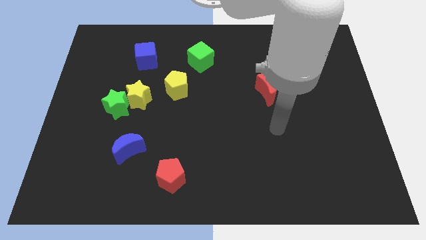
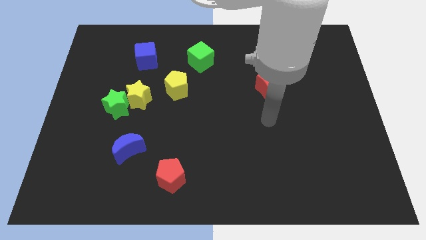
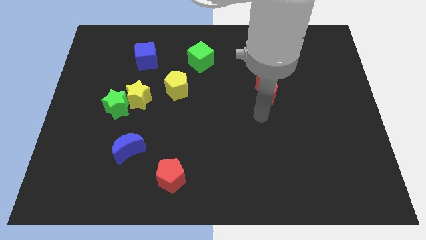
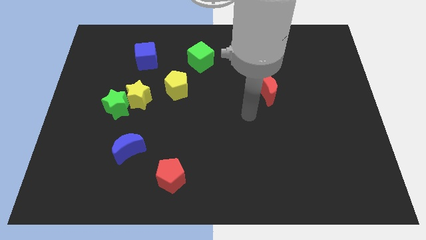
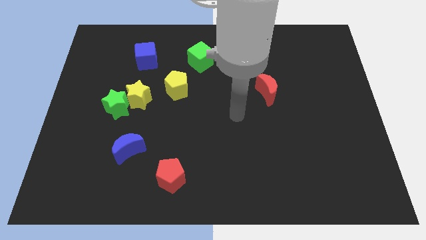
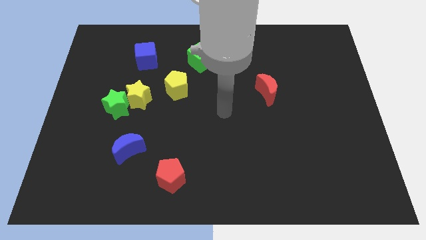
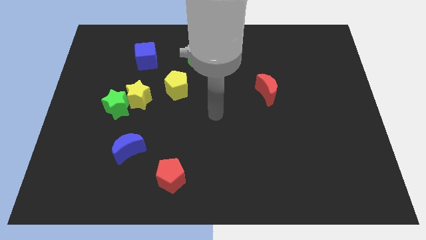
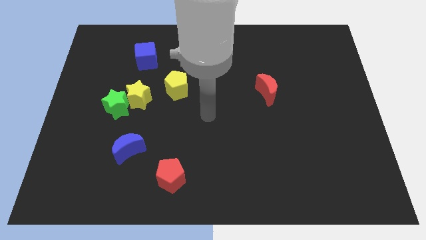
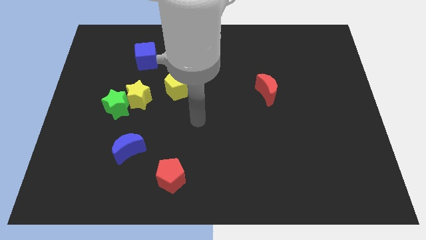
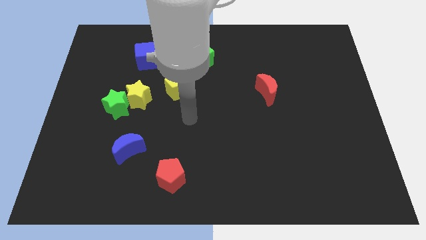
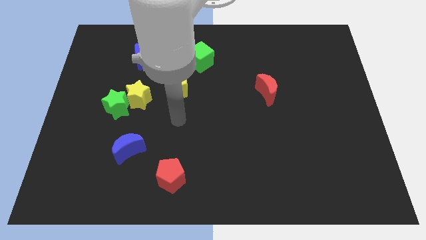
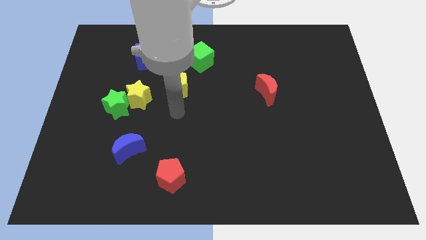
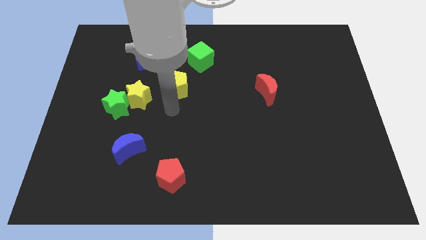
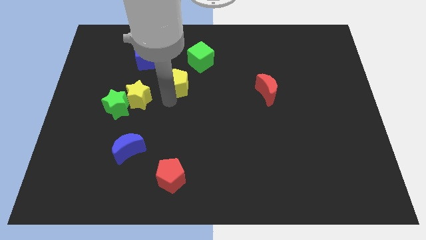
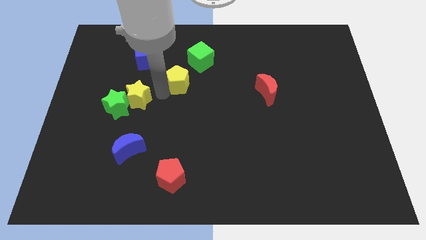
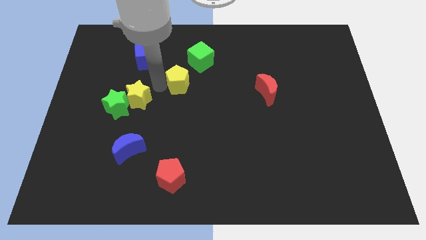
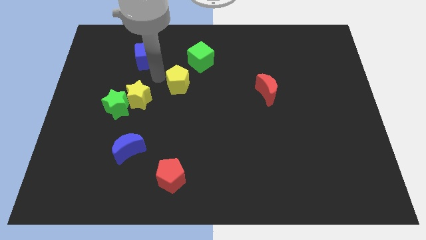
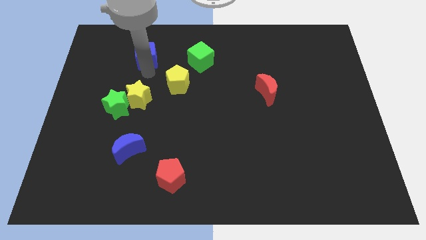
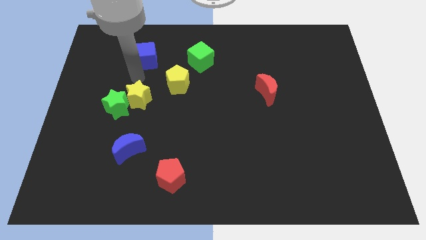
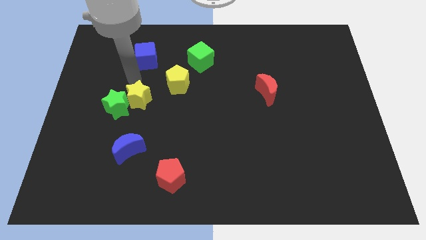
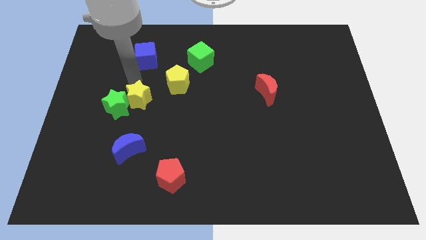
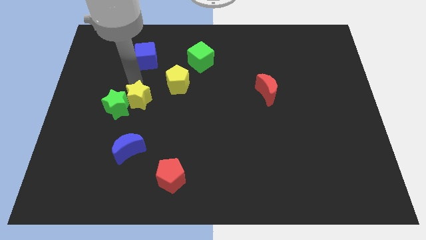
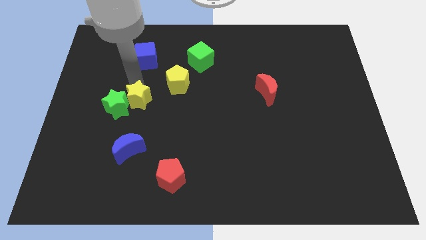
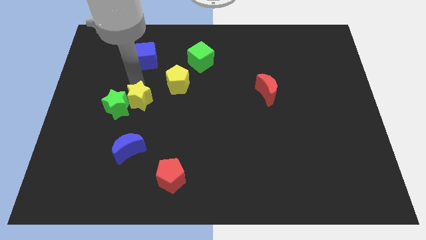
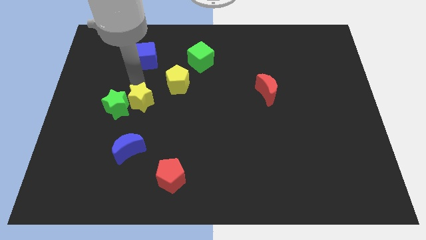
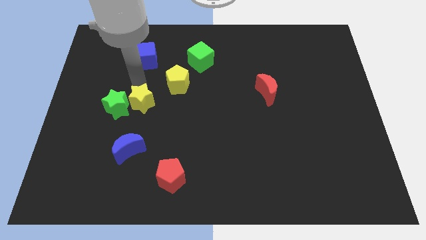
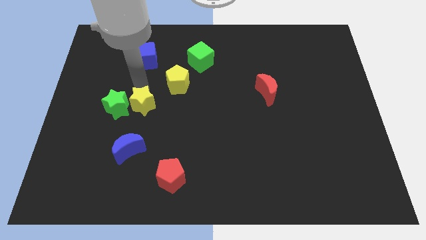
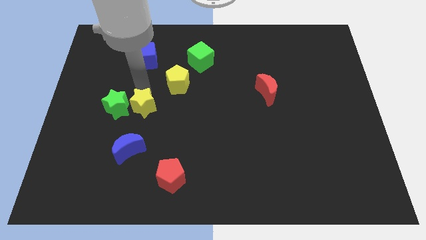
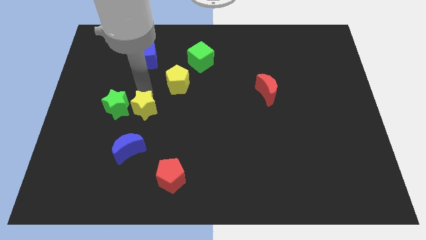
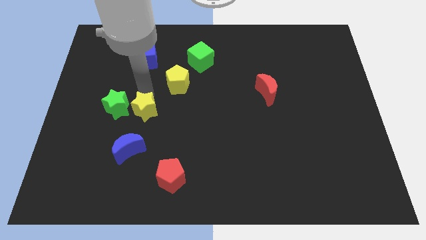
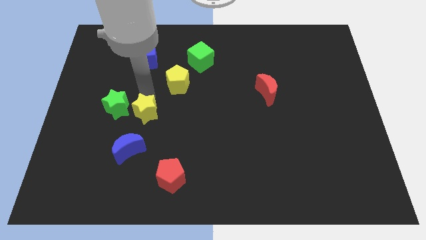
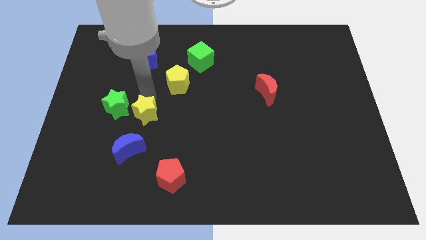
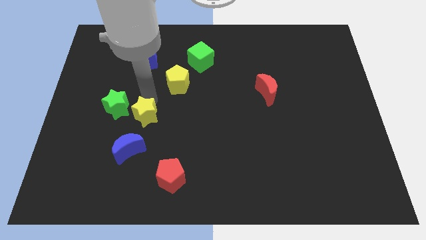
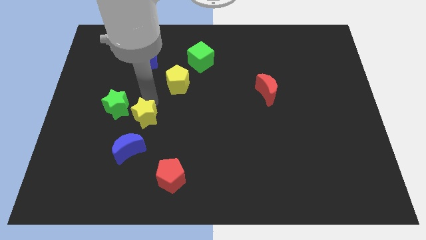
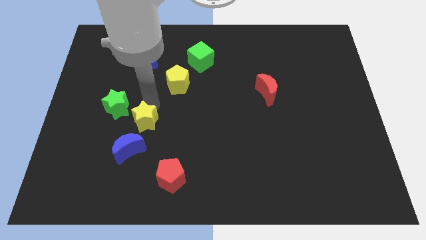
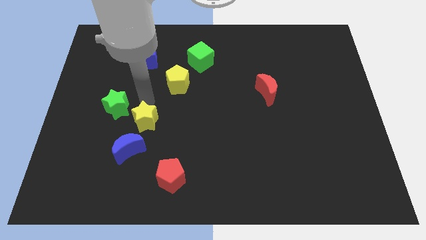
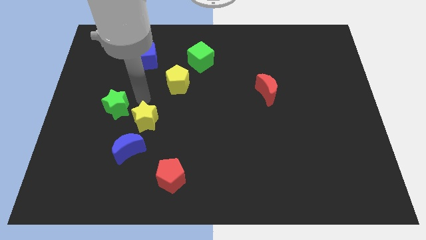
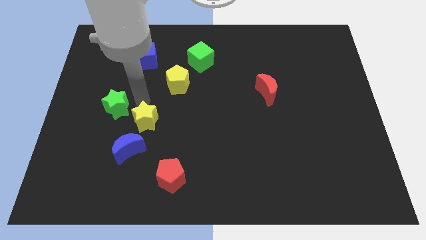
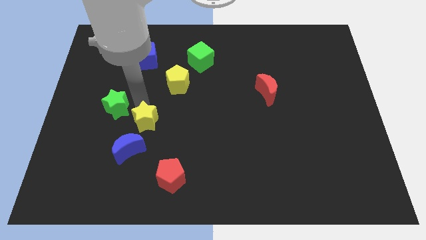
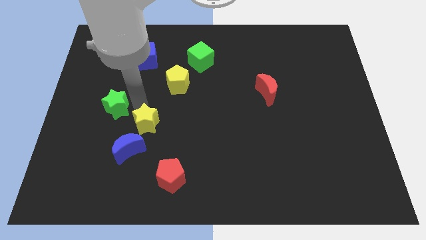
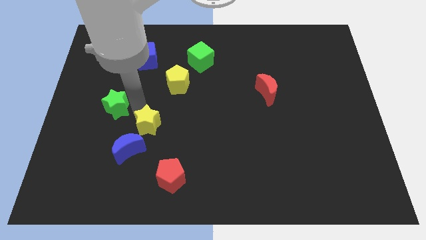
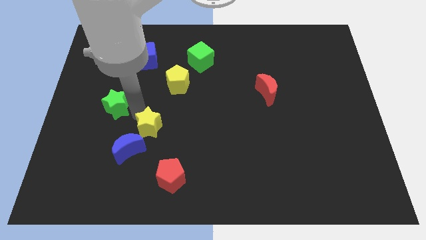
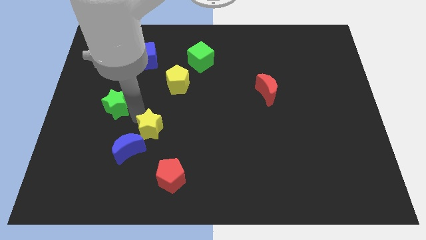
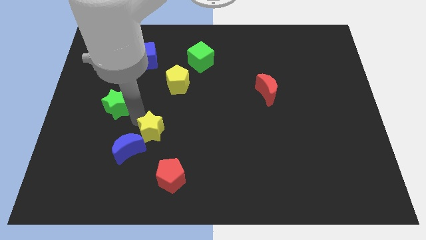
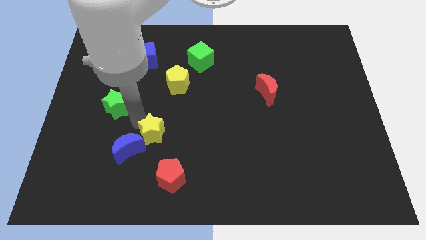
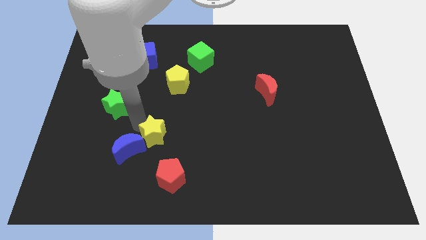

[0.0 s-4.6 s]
move the yellow star to the top left of the red pentagon

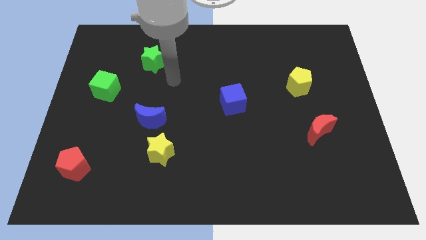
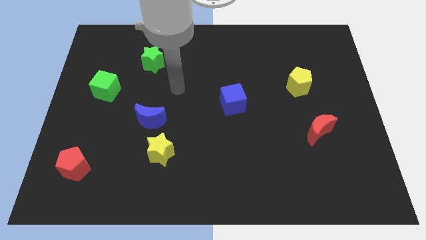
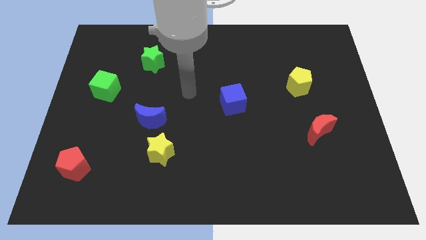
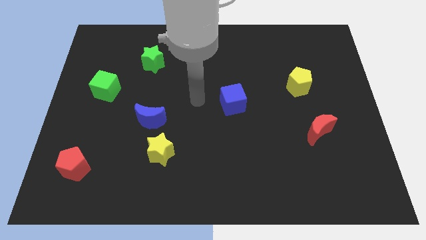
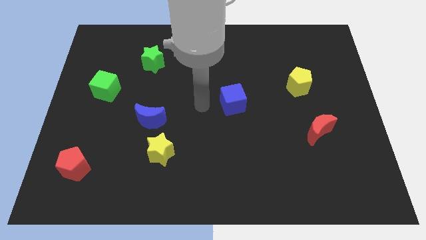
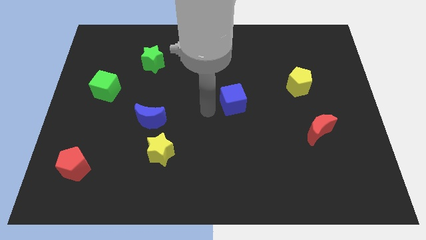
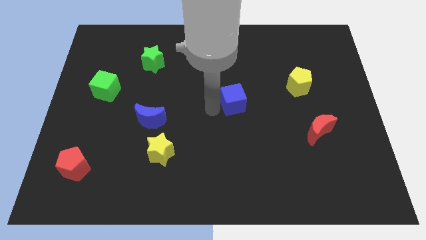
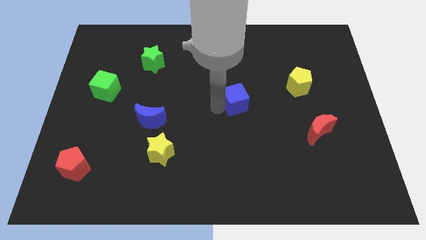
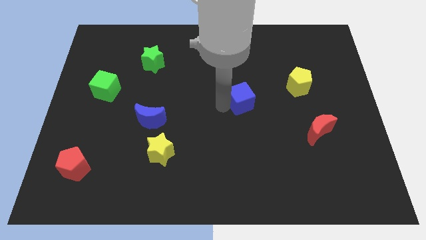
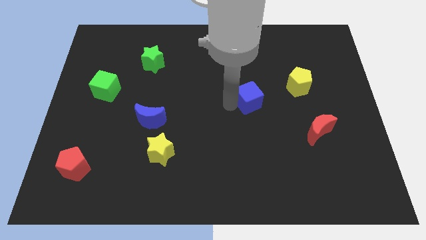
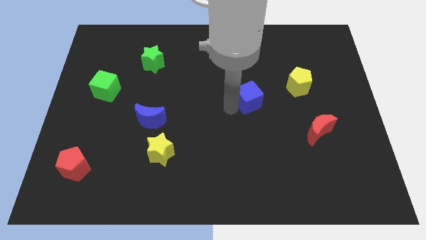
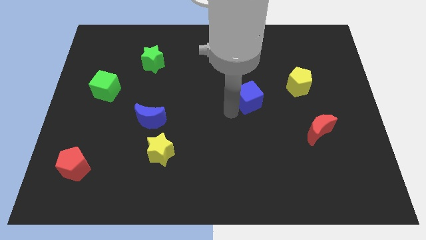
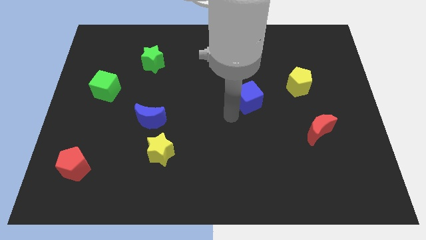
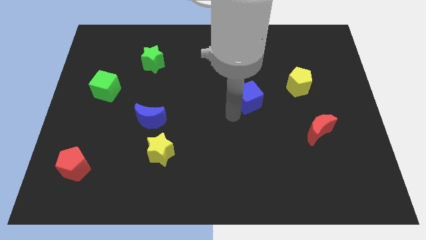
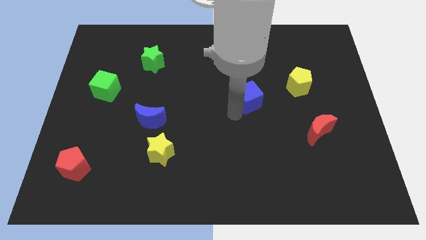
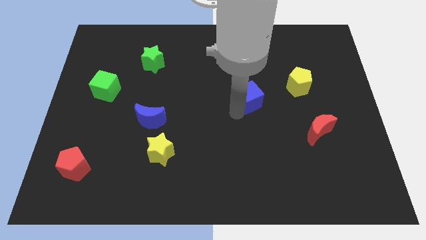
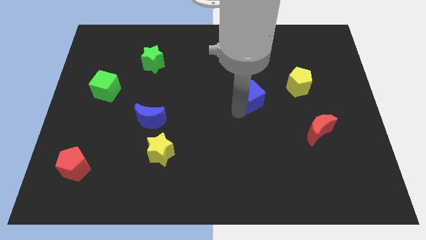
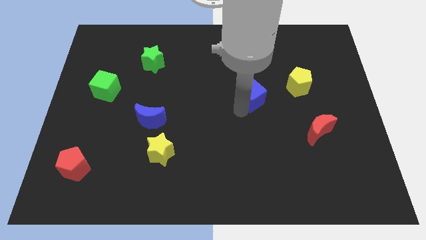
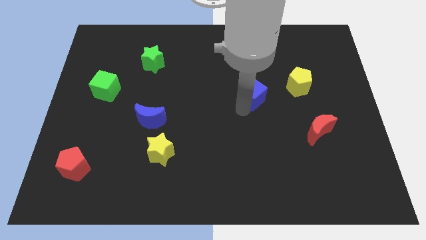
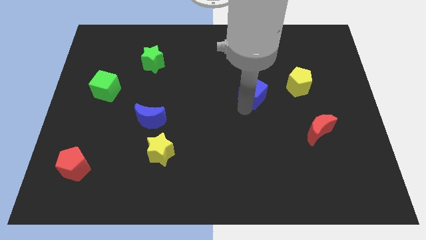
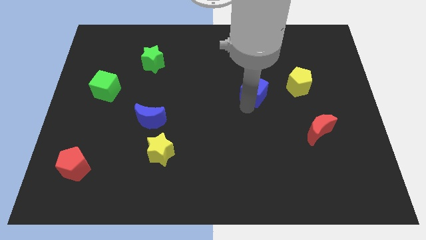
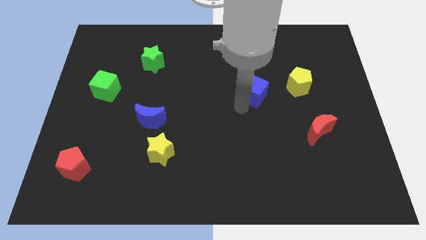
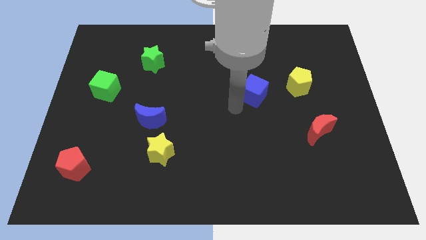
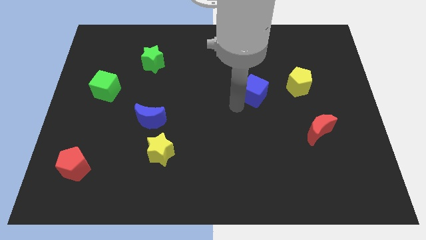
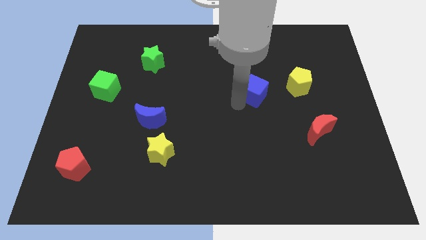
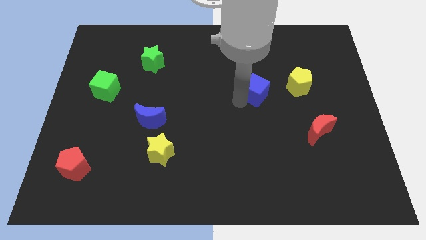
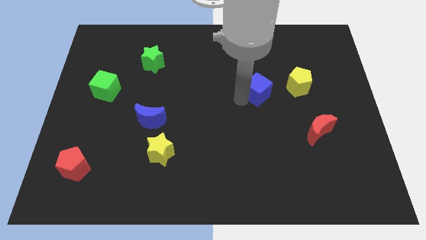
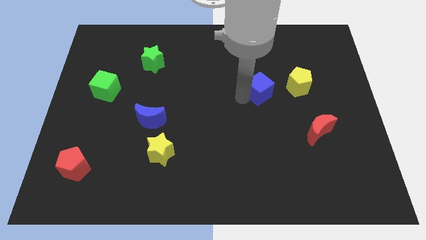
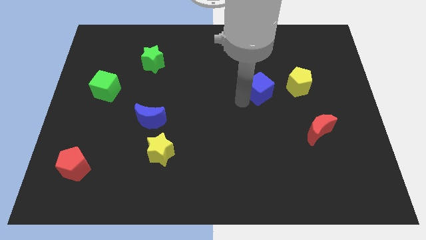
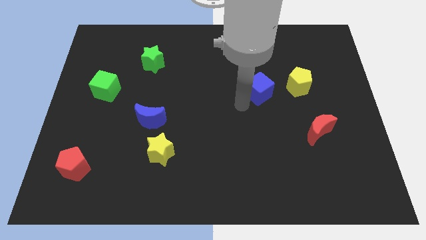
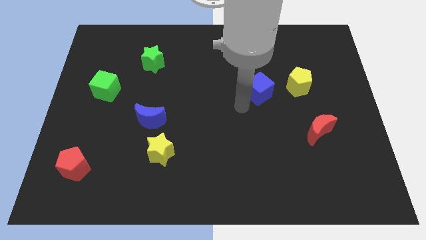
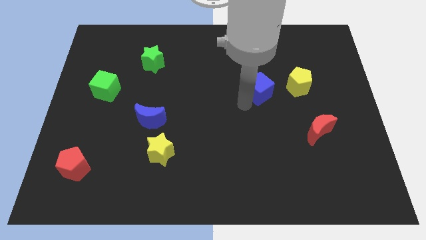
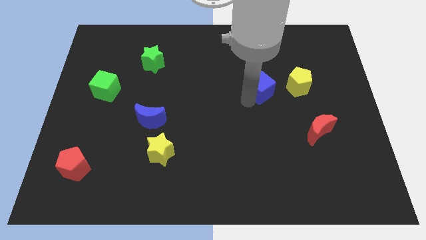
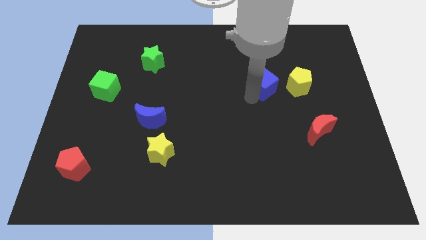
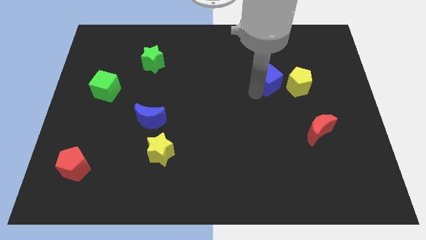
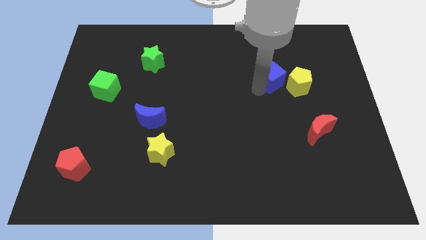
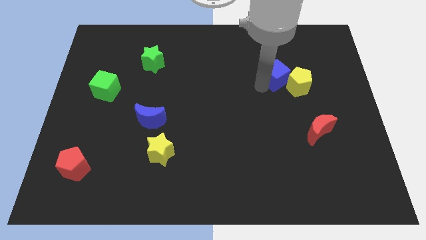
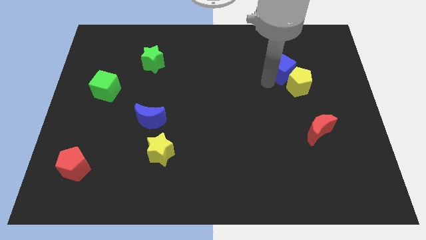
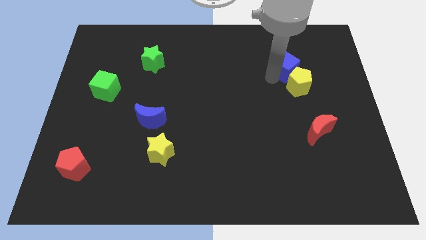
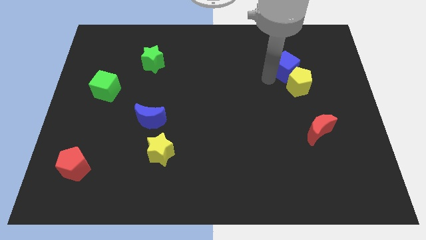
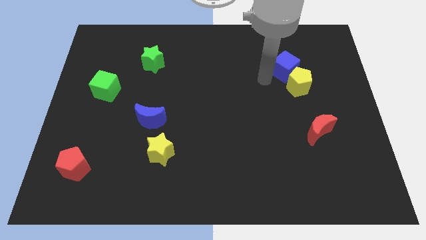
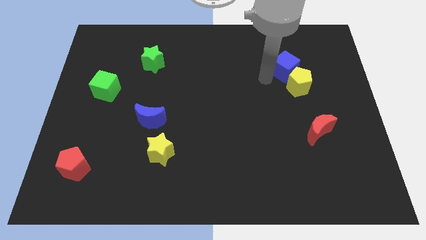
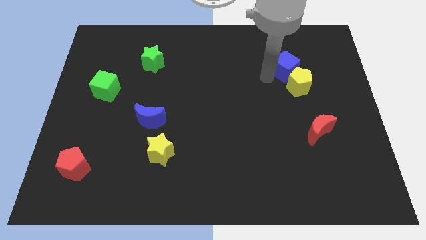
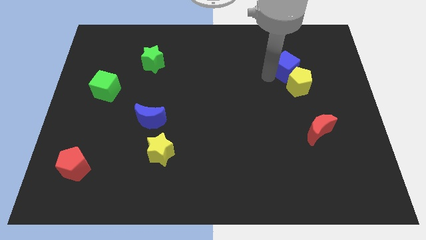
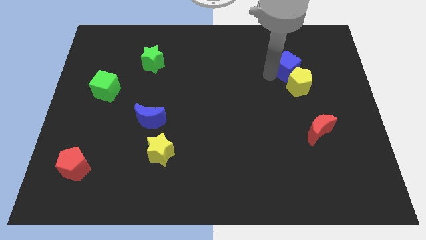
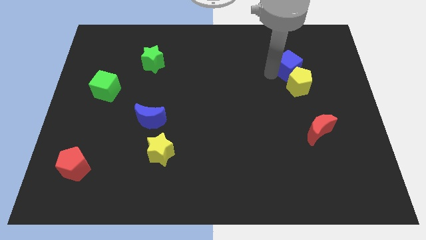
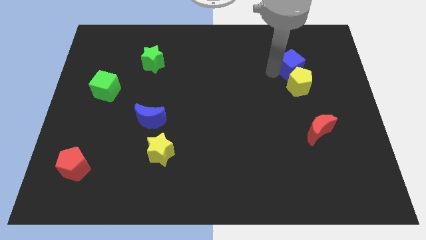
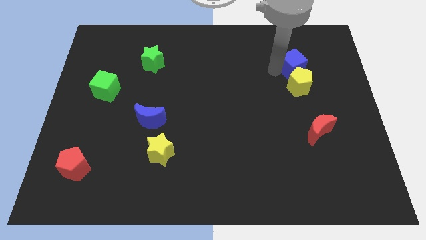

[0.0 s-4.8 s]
put the blue cube to the top right side of the yellow pentagon
